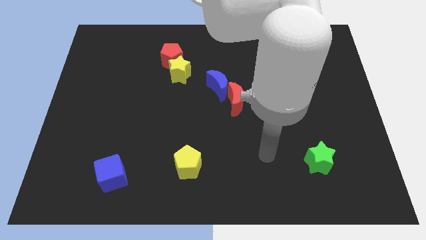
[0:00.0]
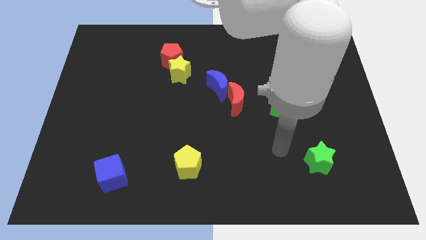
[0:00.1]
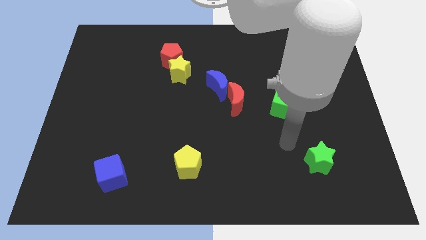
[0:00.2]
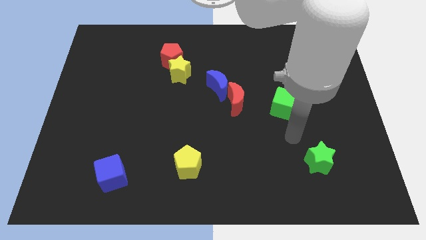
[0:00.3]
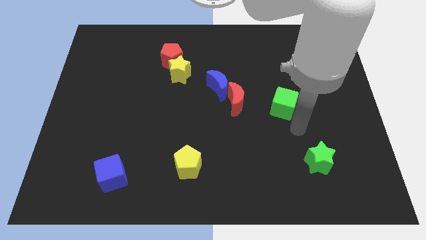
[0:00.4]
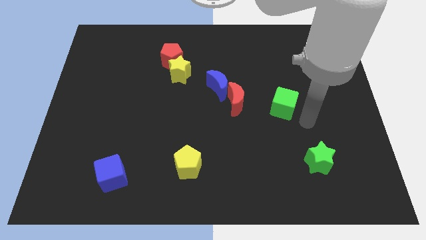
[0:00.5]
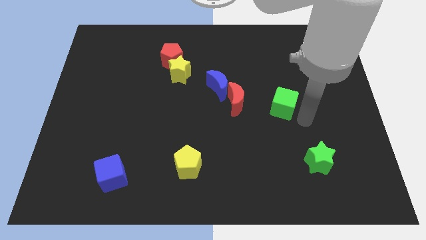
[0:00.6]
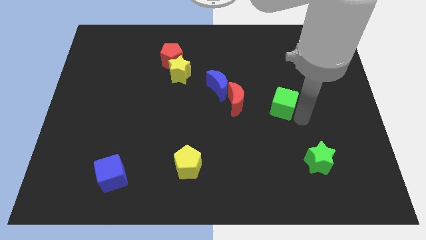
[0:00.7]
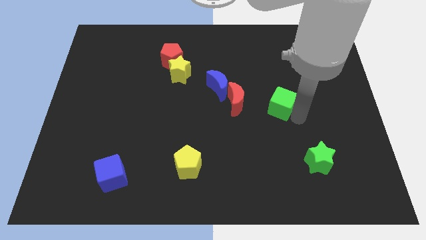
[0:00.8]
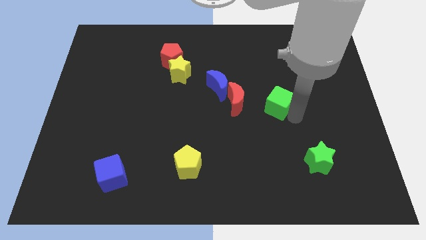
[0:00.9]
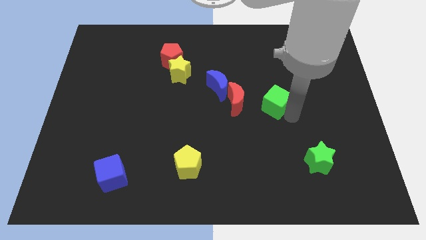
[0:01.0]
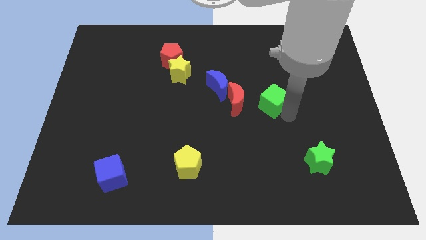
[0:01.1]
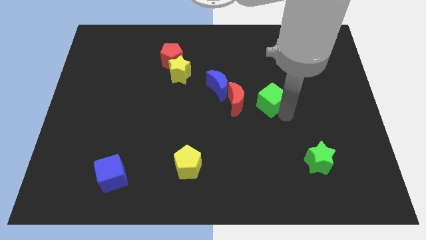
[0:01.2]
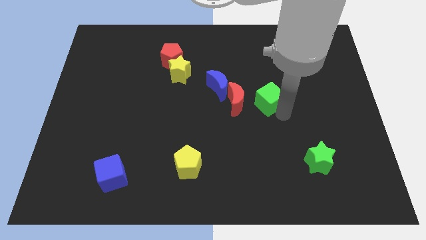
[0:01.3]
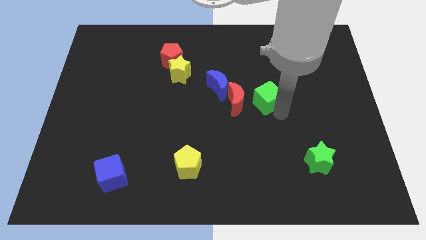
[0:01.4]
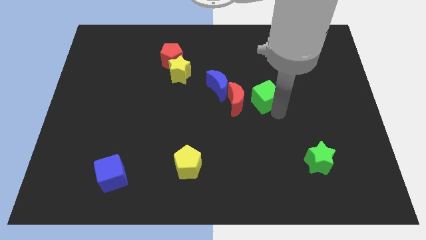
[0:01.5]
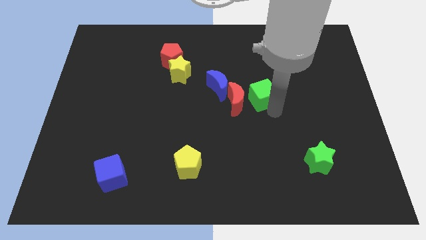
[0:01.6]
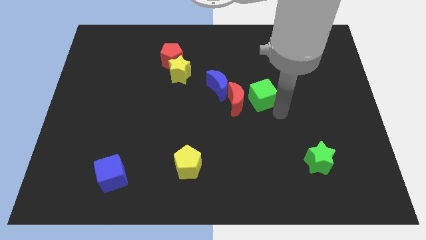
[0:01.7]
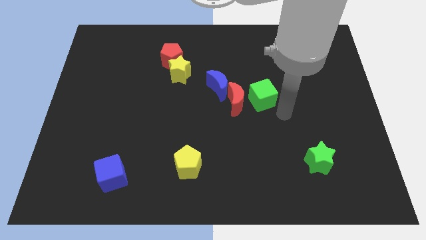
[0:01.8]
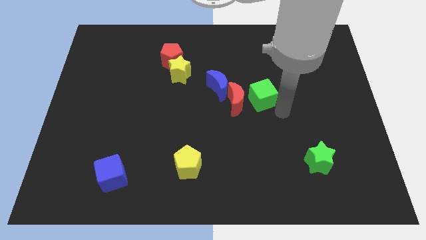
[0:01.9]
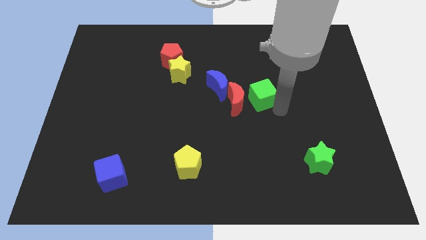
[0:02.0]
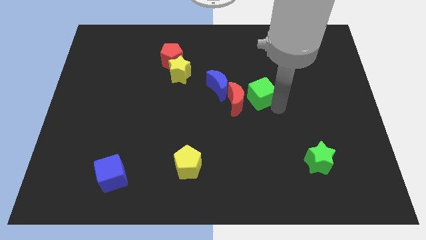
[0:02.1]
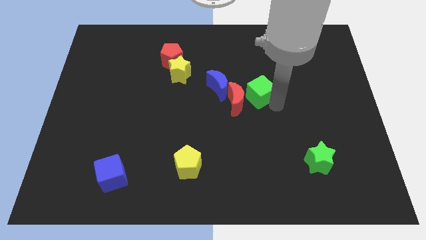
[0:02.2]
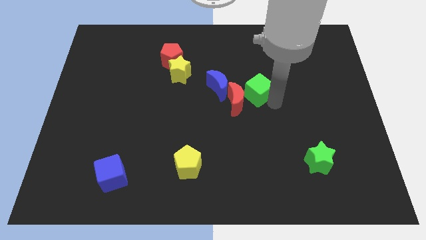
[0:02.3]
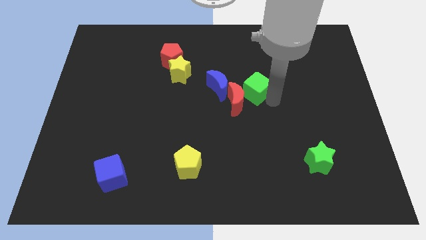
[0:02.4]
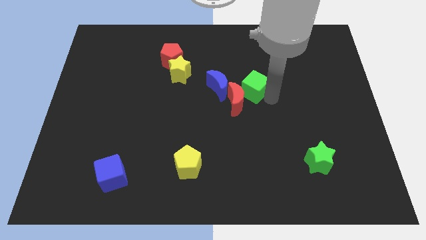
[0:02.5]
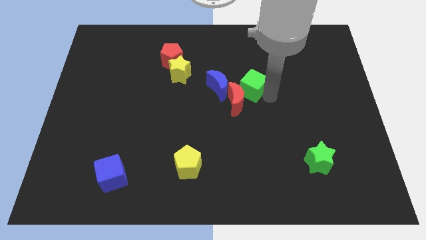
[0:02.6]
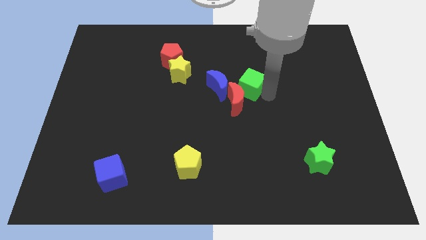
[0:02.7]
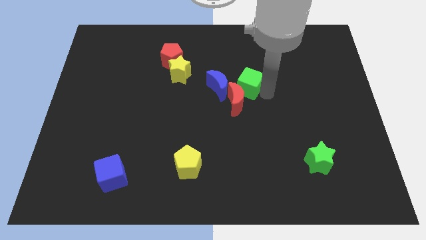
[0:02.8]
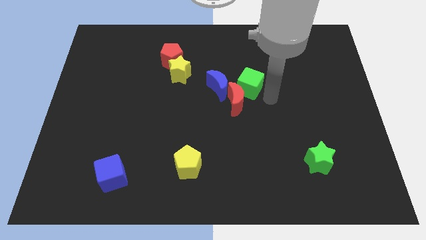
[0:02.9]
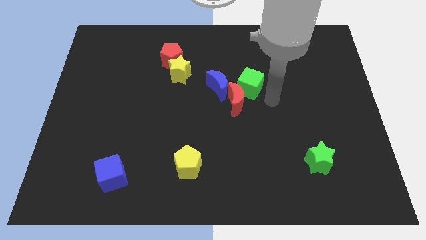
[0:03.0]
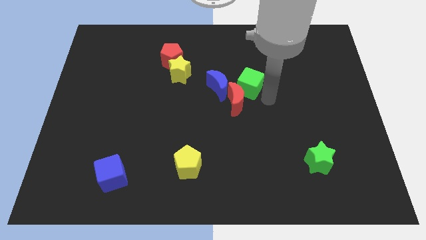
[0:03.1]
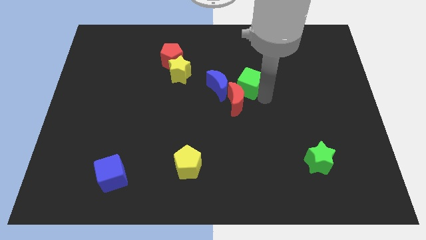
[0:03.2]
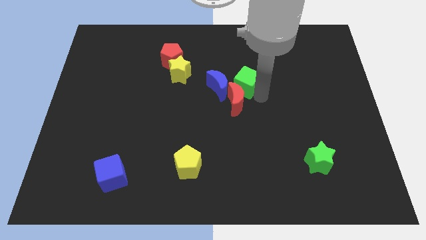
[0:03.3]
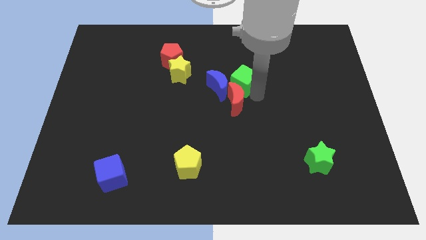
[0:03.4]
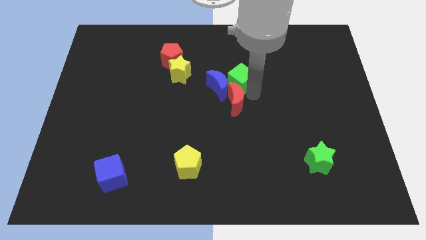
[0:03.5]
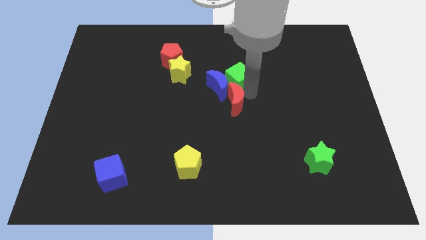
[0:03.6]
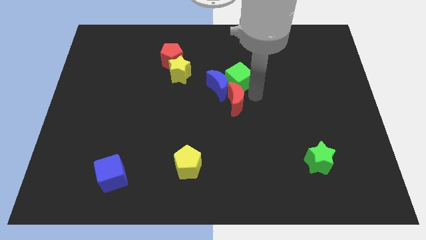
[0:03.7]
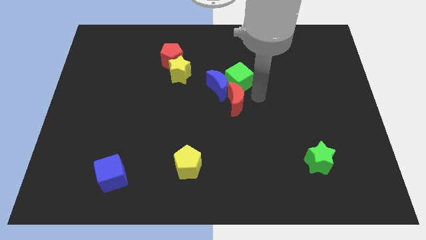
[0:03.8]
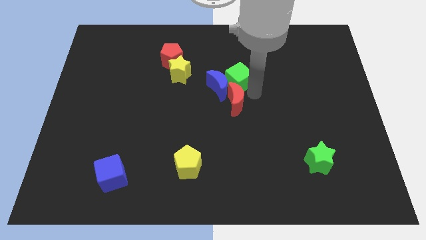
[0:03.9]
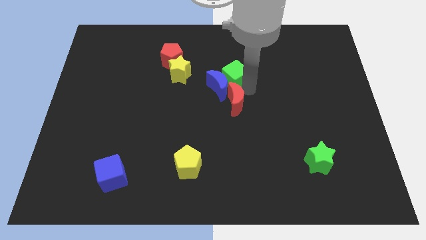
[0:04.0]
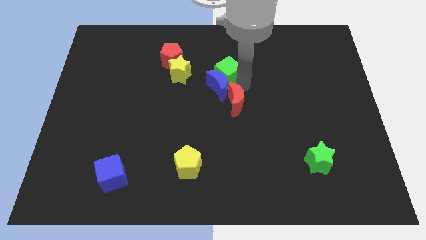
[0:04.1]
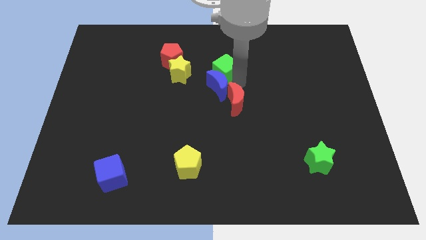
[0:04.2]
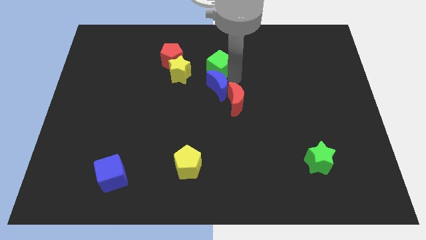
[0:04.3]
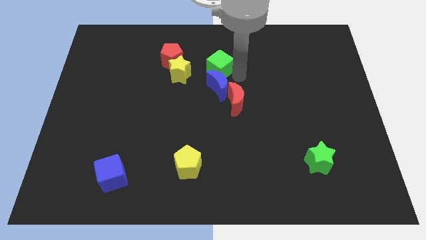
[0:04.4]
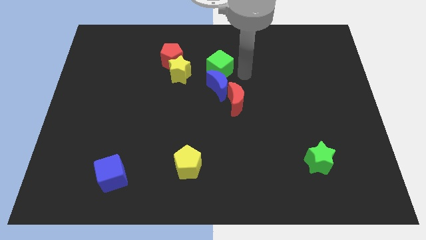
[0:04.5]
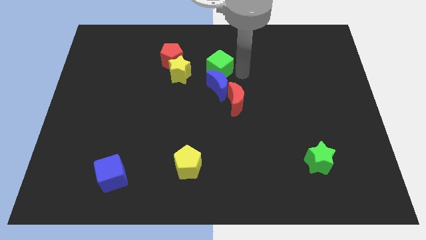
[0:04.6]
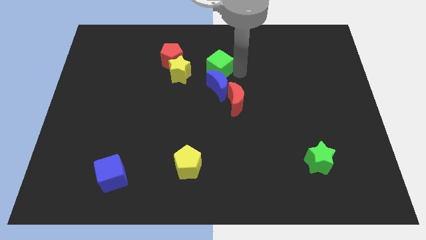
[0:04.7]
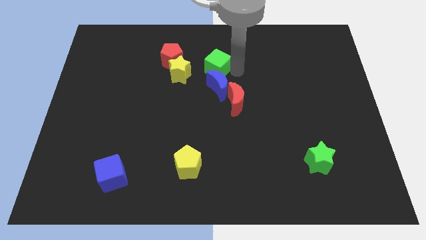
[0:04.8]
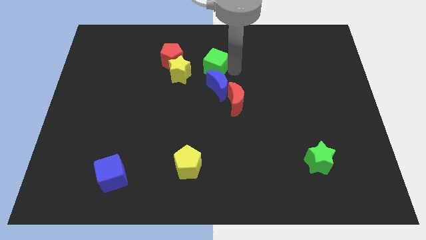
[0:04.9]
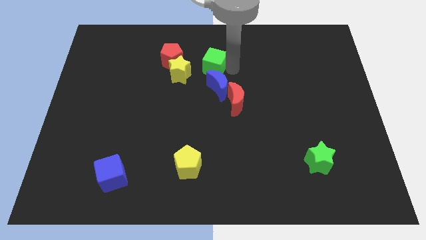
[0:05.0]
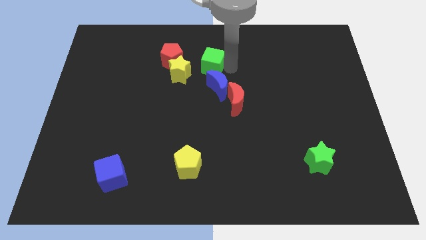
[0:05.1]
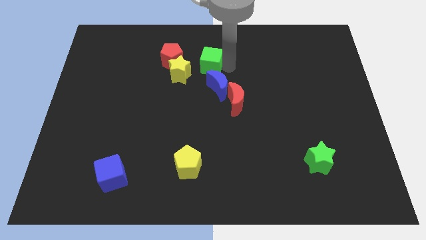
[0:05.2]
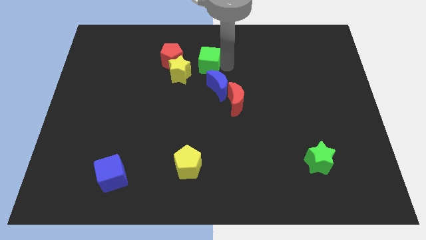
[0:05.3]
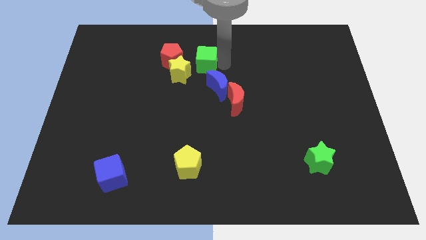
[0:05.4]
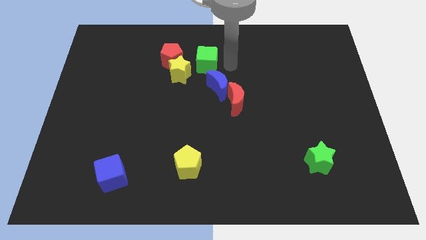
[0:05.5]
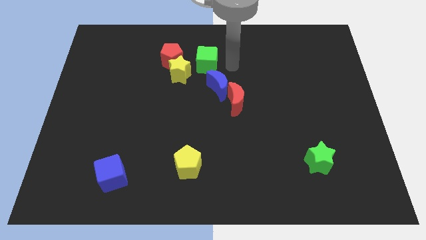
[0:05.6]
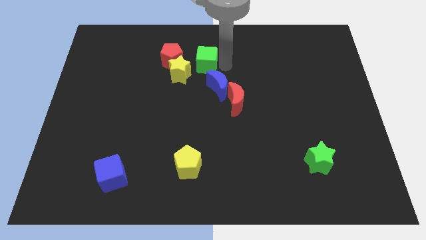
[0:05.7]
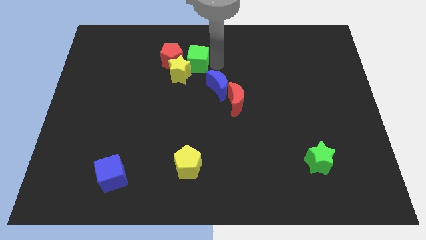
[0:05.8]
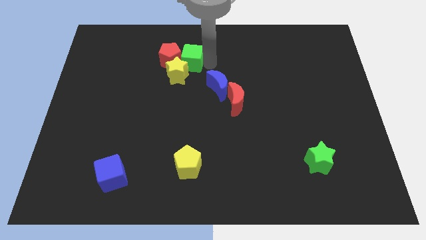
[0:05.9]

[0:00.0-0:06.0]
push the green cube next to the red pentagon
